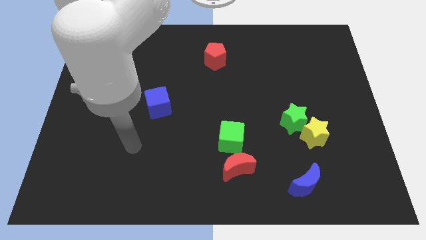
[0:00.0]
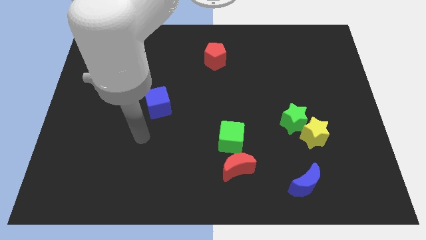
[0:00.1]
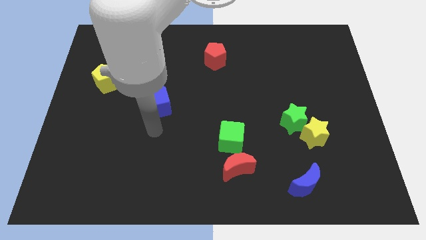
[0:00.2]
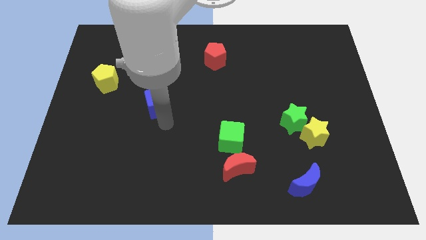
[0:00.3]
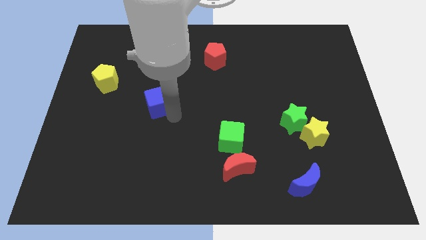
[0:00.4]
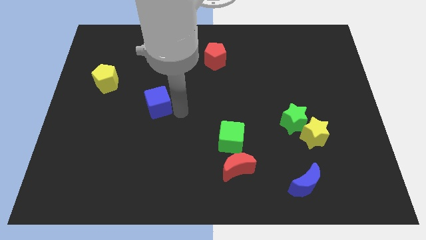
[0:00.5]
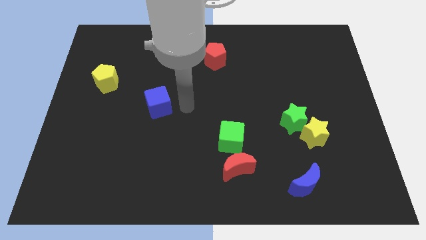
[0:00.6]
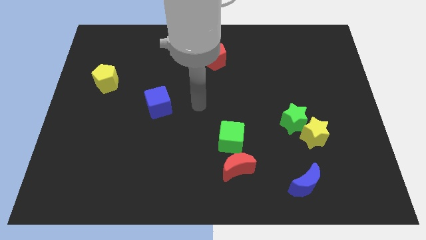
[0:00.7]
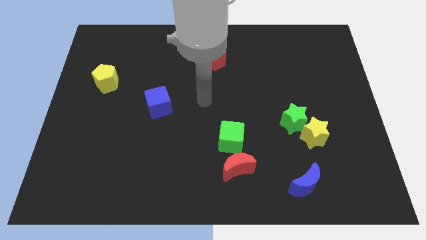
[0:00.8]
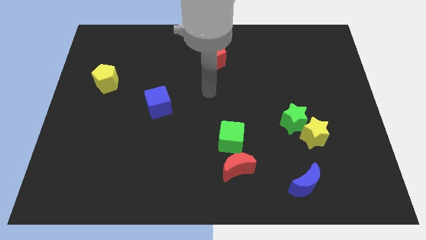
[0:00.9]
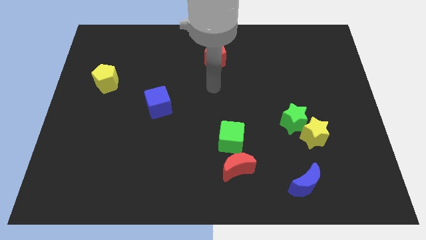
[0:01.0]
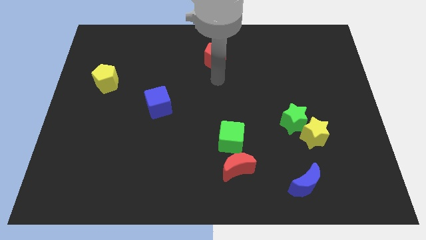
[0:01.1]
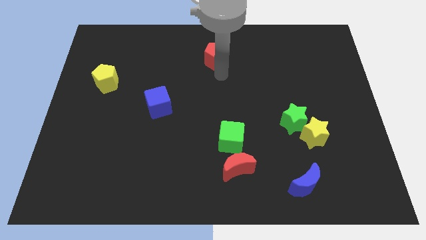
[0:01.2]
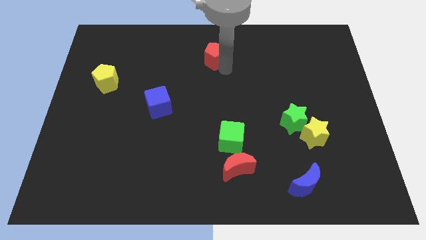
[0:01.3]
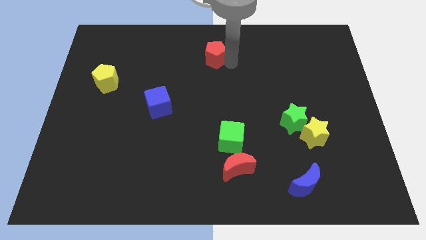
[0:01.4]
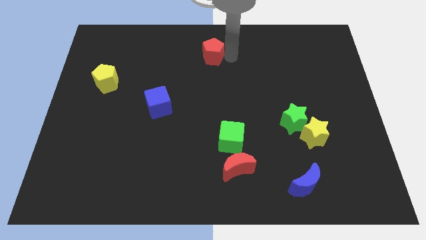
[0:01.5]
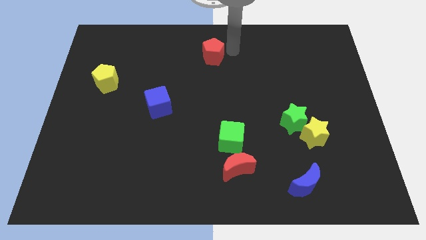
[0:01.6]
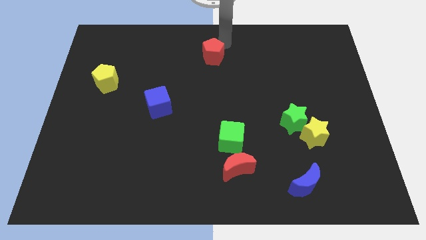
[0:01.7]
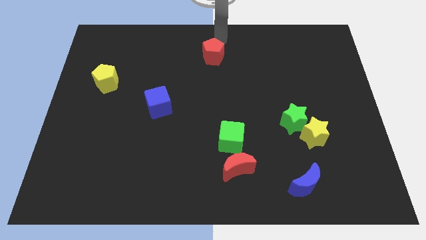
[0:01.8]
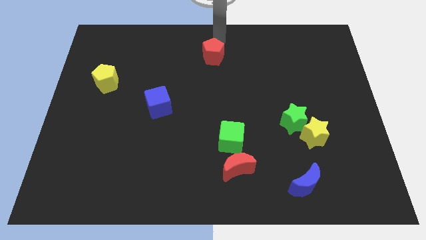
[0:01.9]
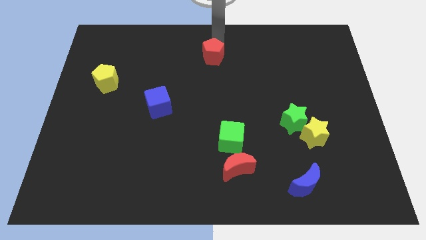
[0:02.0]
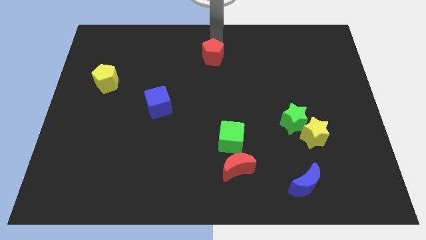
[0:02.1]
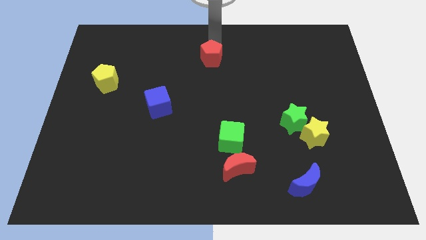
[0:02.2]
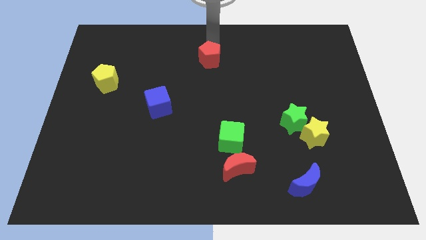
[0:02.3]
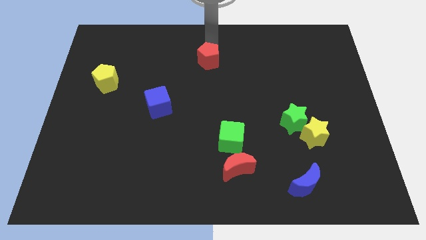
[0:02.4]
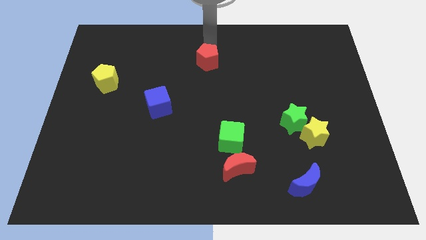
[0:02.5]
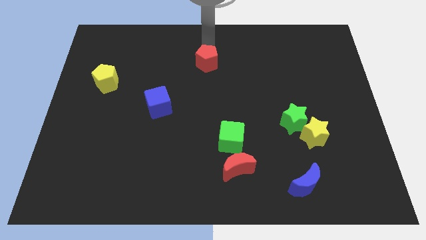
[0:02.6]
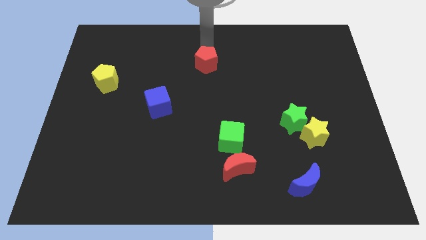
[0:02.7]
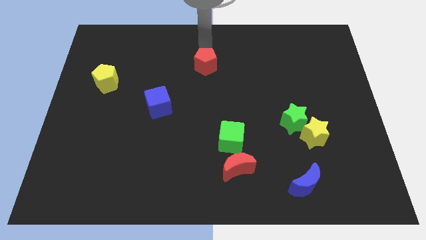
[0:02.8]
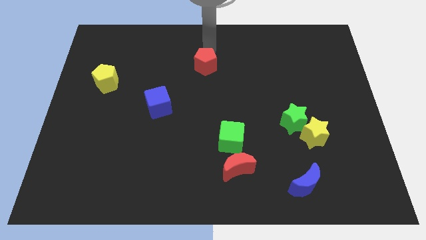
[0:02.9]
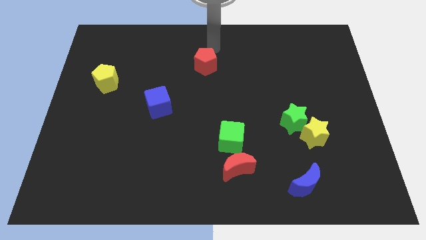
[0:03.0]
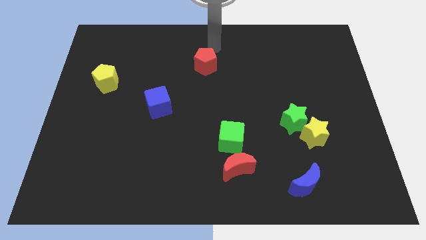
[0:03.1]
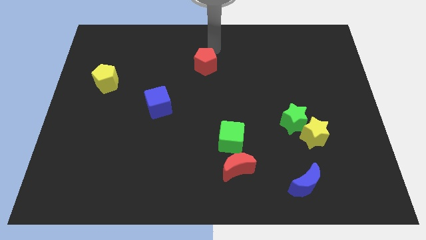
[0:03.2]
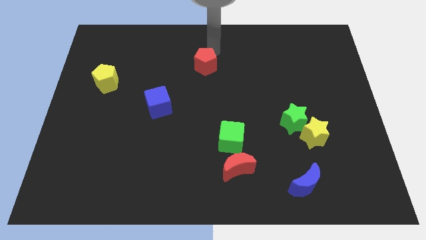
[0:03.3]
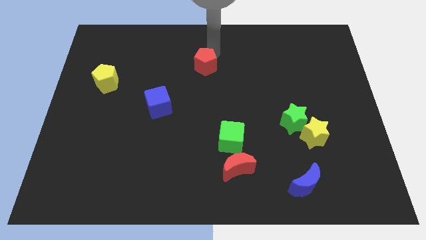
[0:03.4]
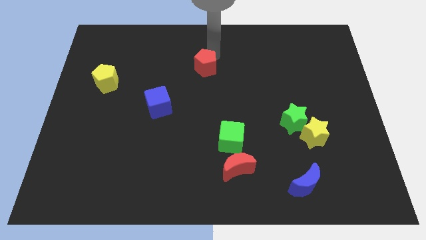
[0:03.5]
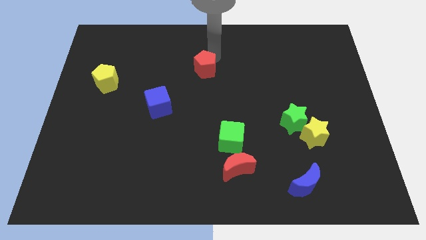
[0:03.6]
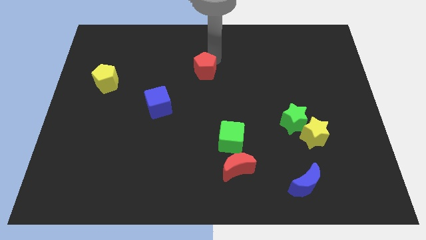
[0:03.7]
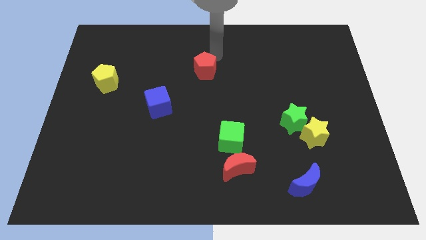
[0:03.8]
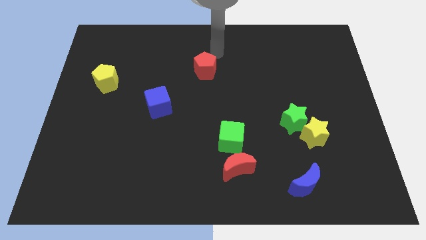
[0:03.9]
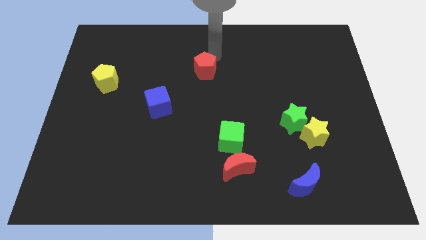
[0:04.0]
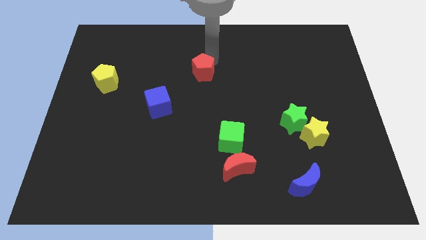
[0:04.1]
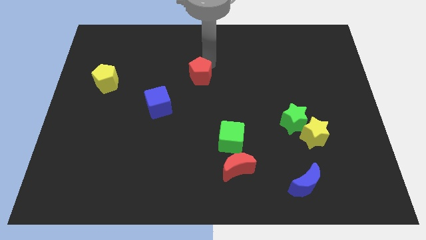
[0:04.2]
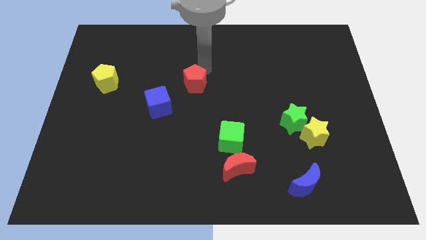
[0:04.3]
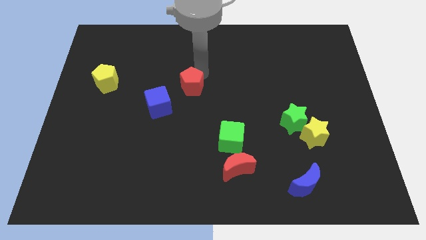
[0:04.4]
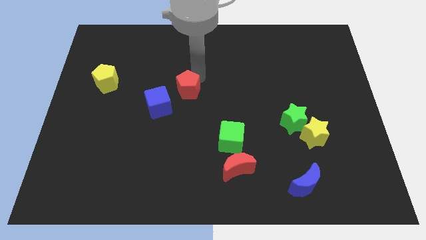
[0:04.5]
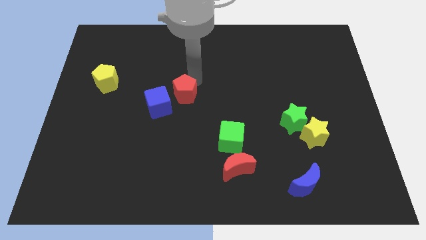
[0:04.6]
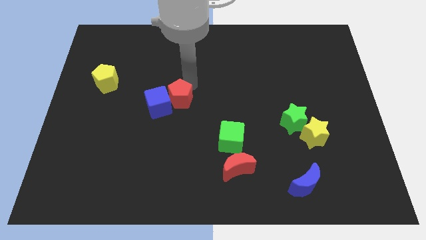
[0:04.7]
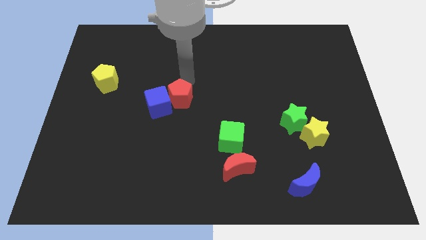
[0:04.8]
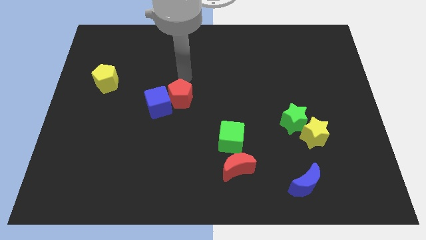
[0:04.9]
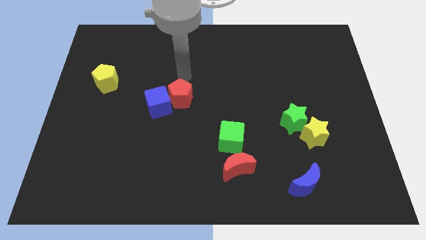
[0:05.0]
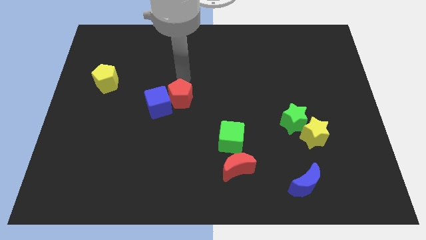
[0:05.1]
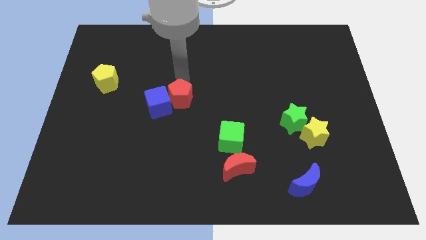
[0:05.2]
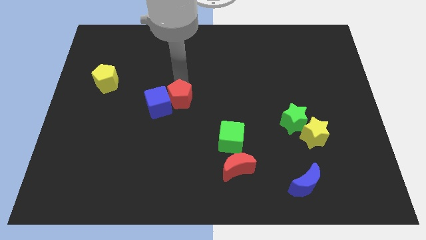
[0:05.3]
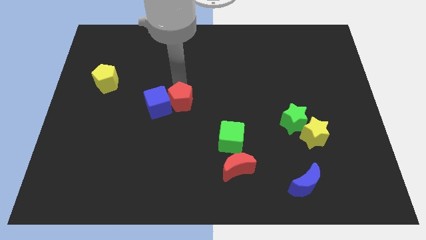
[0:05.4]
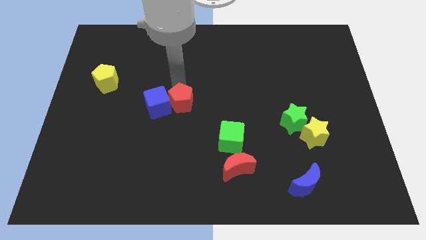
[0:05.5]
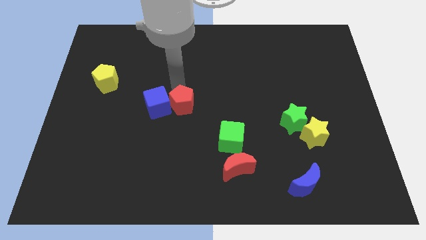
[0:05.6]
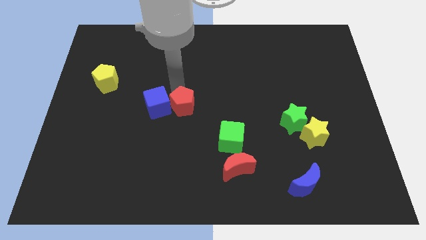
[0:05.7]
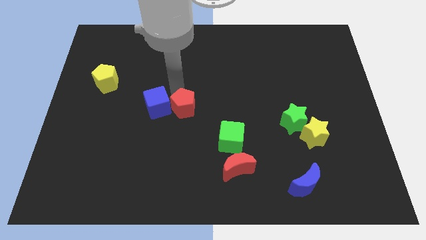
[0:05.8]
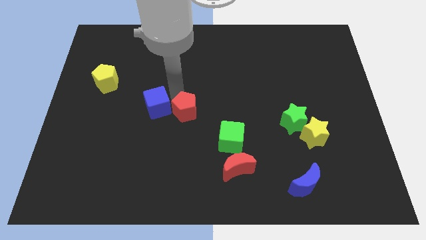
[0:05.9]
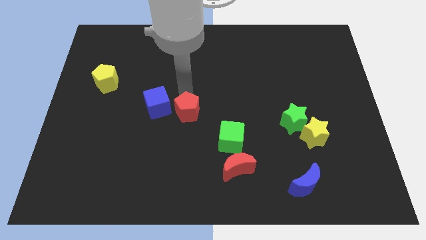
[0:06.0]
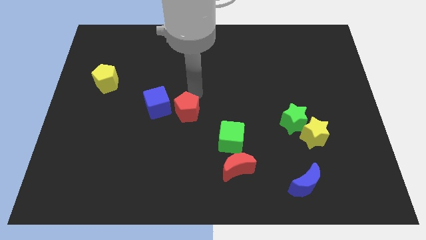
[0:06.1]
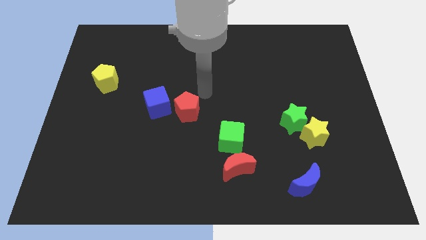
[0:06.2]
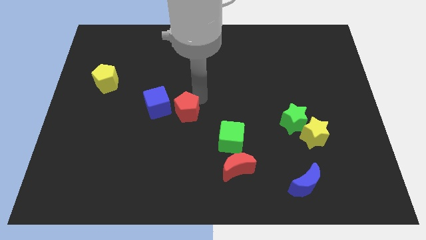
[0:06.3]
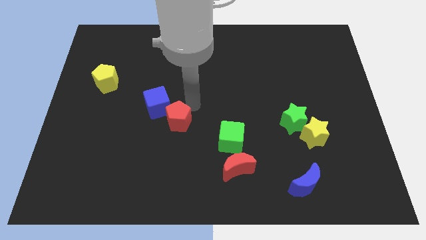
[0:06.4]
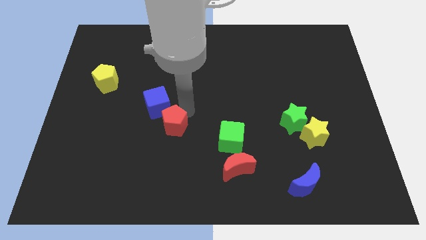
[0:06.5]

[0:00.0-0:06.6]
slide the red pentagon to the bottom side of the blue cube

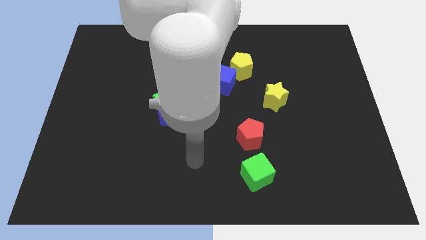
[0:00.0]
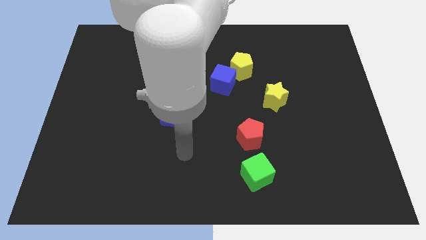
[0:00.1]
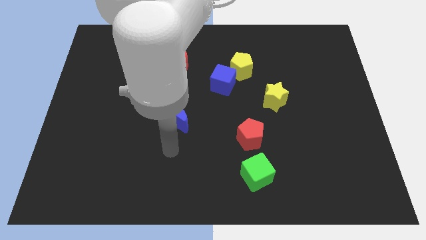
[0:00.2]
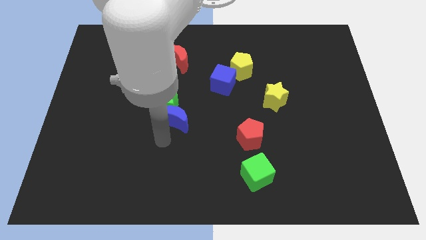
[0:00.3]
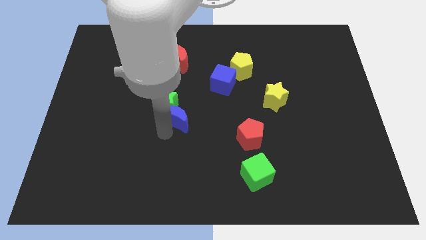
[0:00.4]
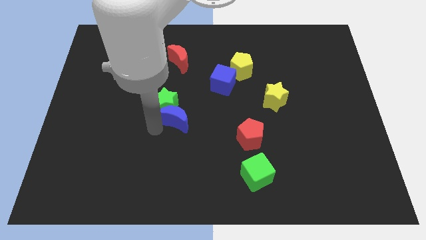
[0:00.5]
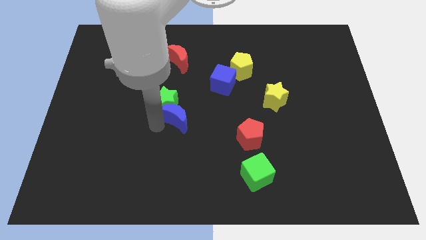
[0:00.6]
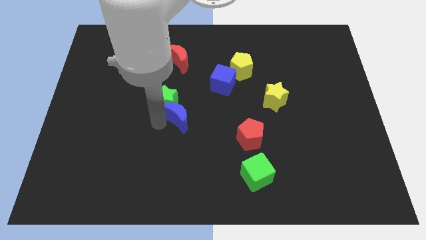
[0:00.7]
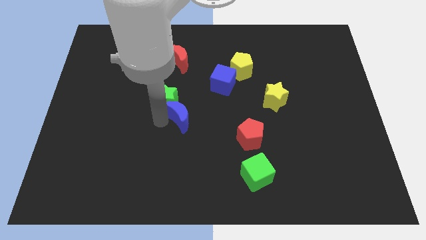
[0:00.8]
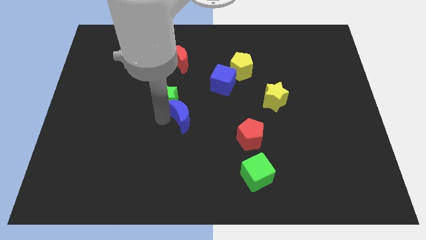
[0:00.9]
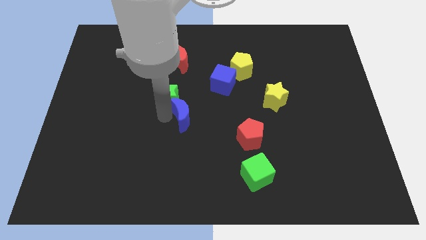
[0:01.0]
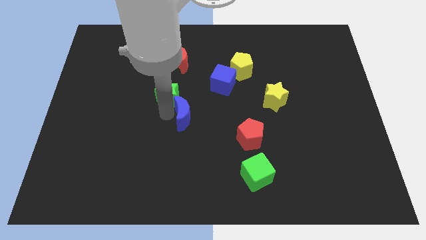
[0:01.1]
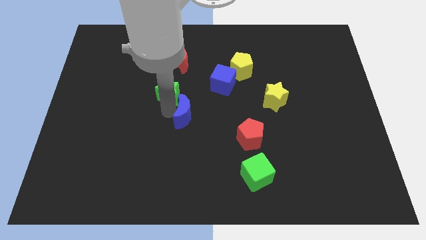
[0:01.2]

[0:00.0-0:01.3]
put the green star just left of the blue cube

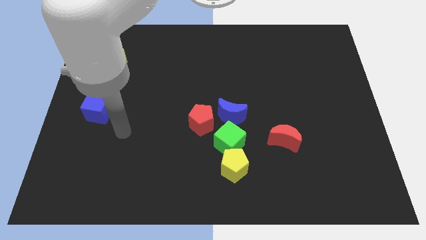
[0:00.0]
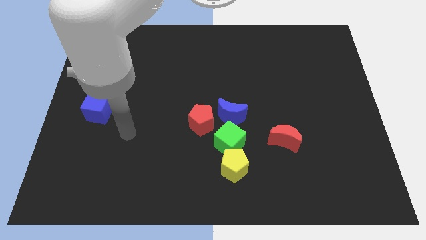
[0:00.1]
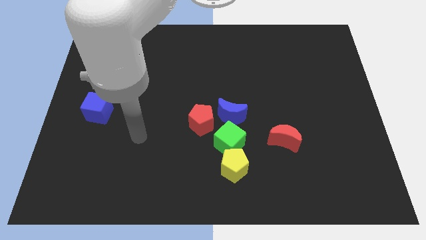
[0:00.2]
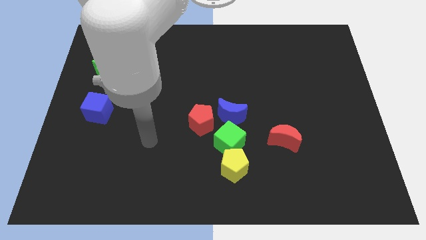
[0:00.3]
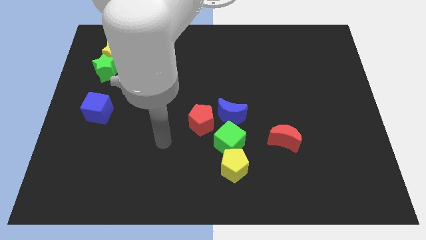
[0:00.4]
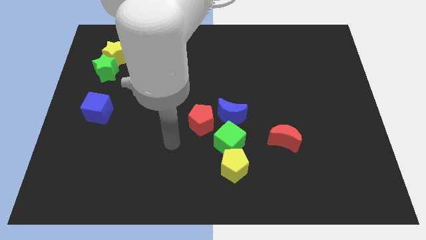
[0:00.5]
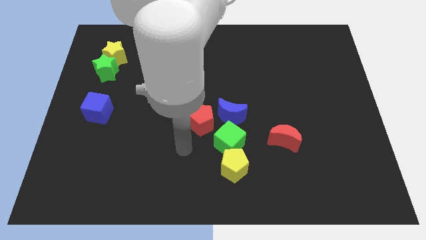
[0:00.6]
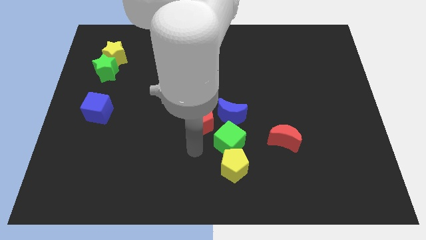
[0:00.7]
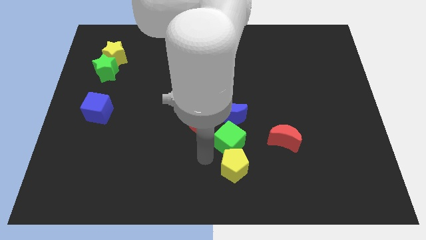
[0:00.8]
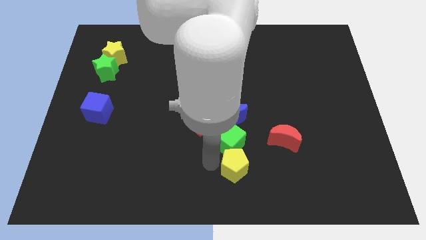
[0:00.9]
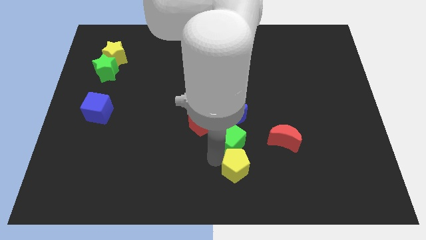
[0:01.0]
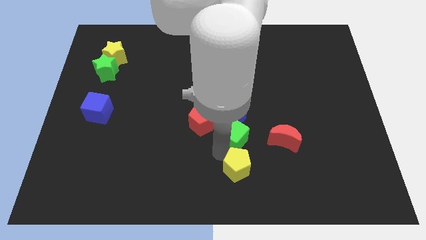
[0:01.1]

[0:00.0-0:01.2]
slide the green cube right of the red pentagon
